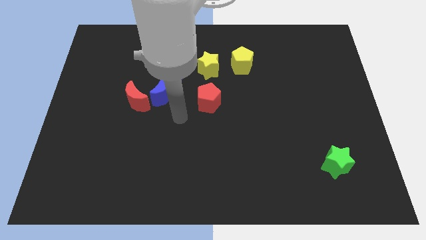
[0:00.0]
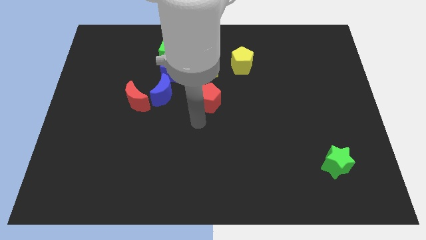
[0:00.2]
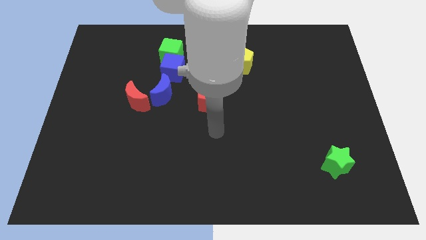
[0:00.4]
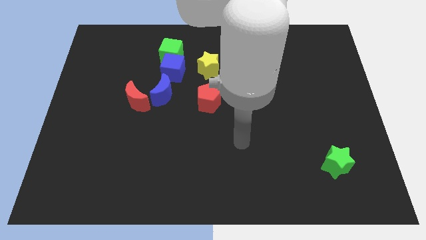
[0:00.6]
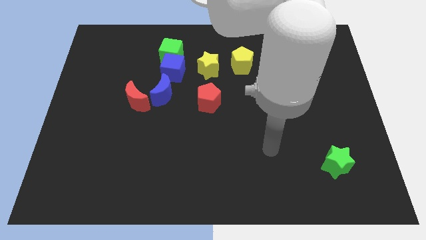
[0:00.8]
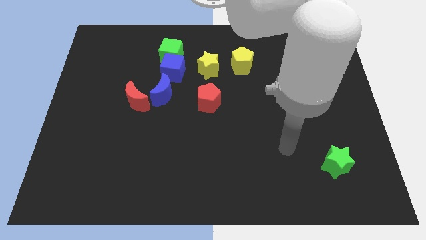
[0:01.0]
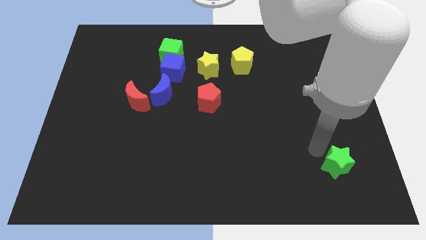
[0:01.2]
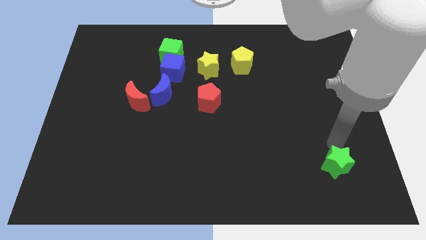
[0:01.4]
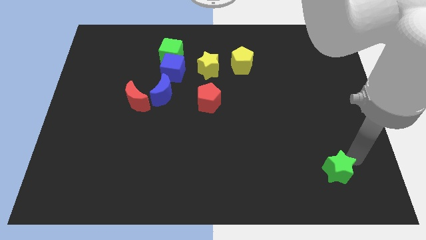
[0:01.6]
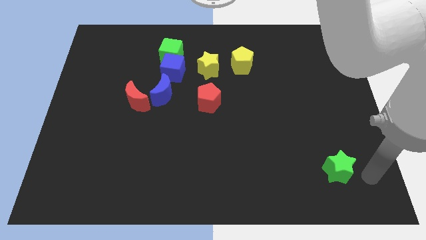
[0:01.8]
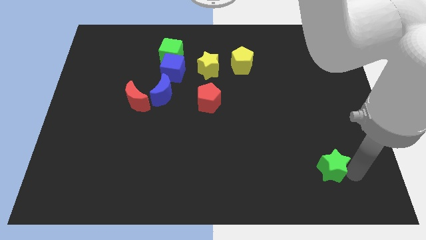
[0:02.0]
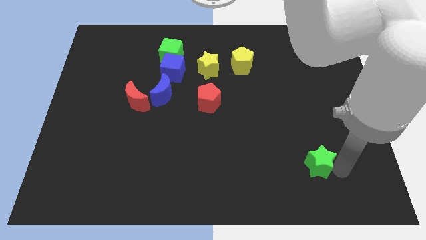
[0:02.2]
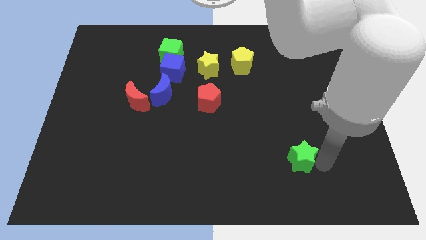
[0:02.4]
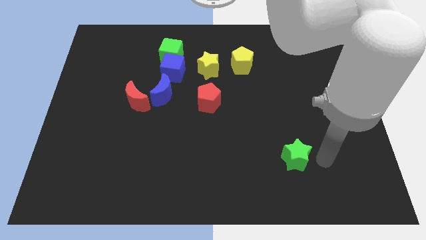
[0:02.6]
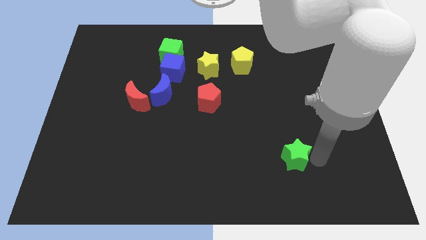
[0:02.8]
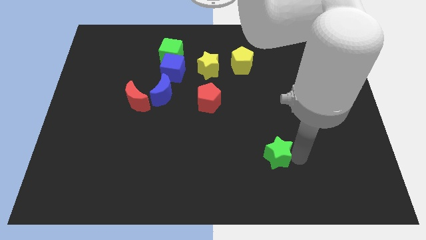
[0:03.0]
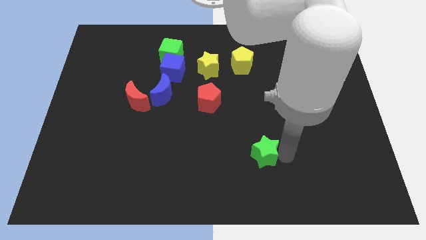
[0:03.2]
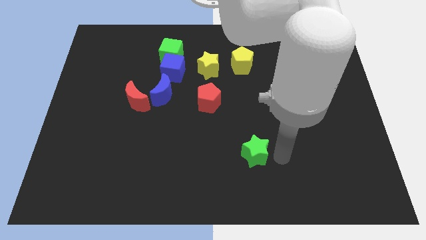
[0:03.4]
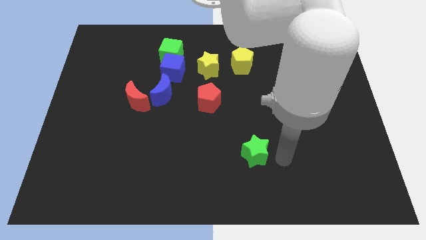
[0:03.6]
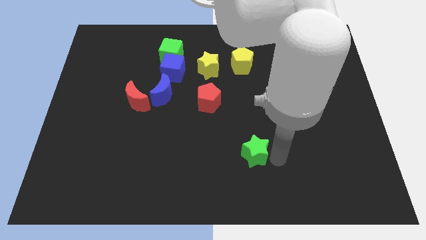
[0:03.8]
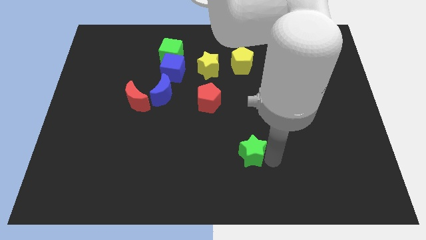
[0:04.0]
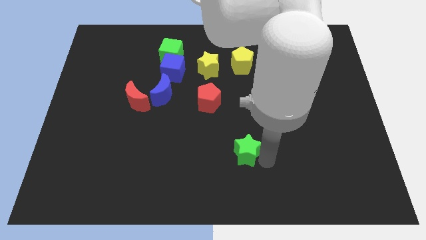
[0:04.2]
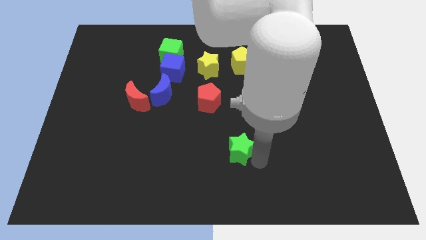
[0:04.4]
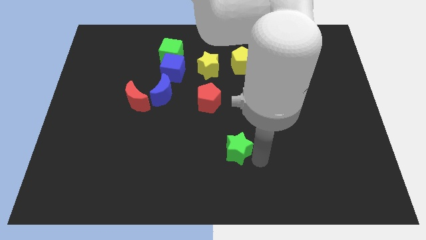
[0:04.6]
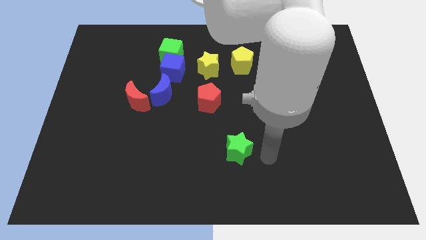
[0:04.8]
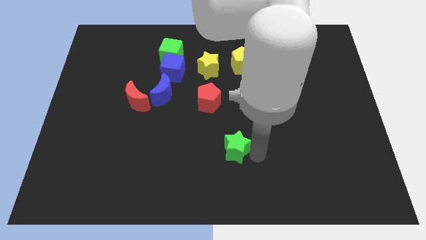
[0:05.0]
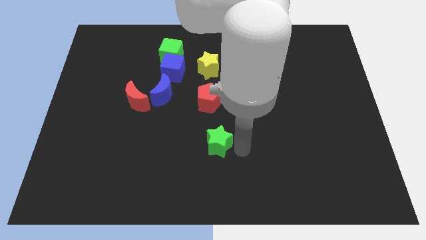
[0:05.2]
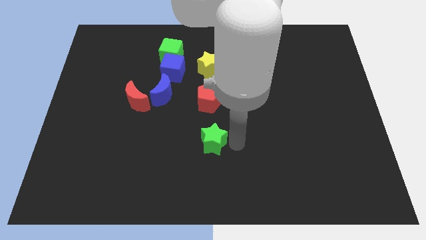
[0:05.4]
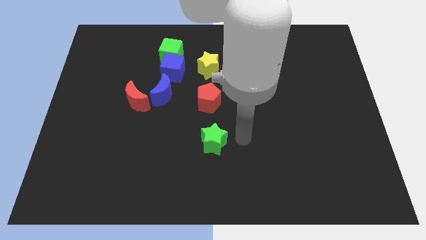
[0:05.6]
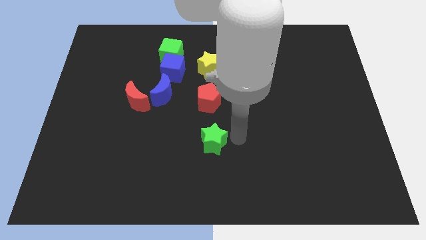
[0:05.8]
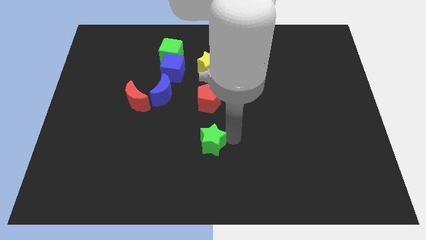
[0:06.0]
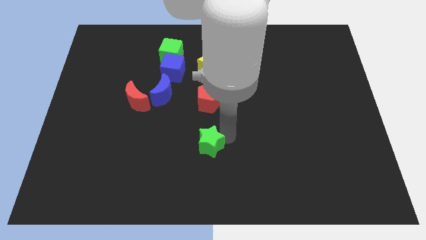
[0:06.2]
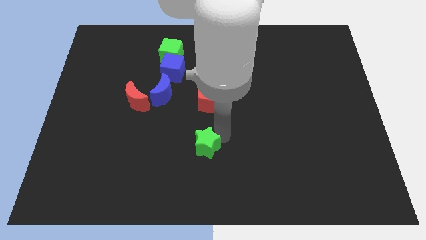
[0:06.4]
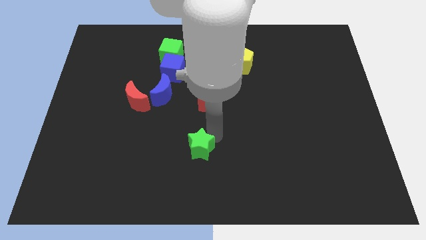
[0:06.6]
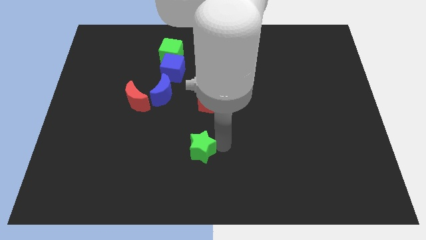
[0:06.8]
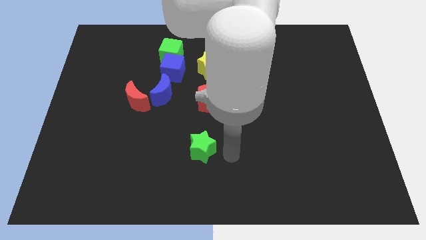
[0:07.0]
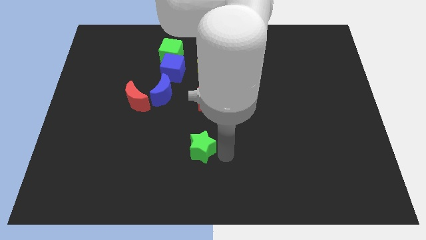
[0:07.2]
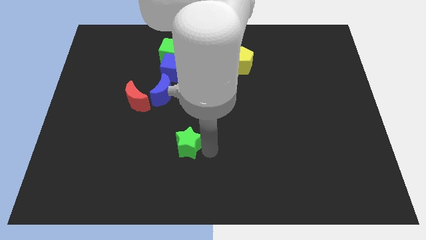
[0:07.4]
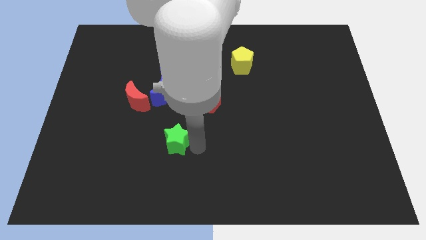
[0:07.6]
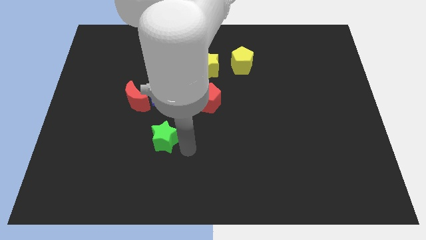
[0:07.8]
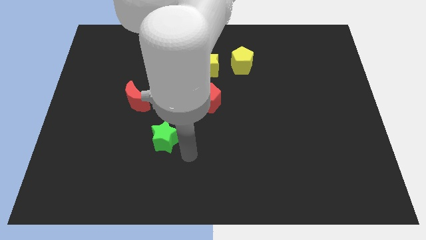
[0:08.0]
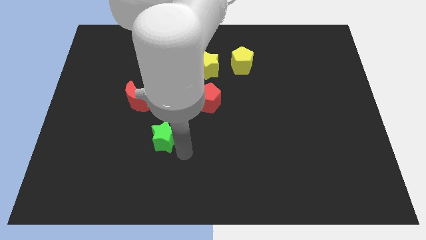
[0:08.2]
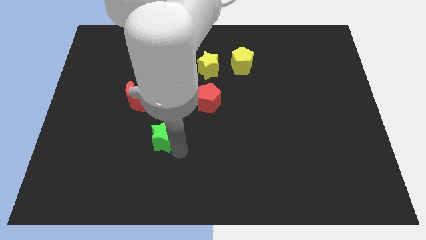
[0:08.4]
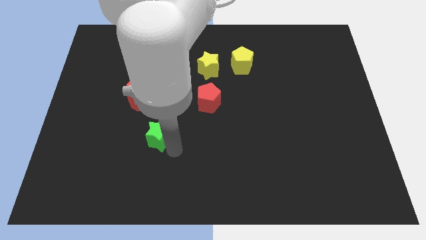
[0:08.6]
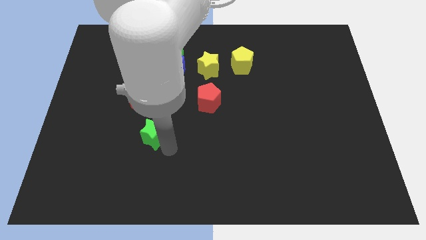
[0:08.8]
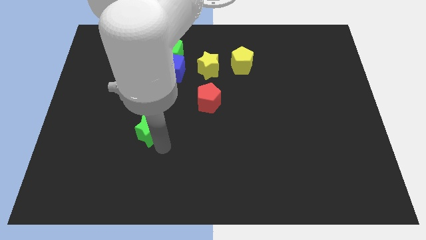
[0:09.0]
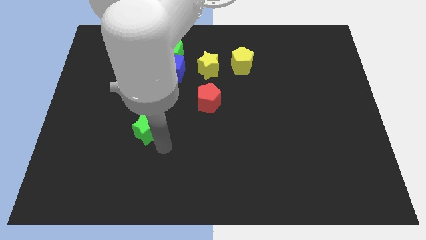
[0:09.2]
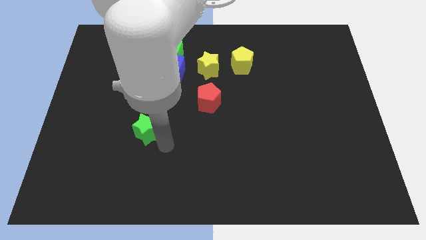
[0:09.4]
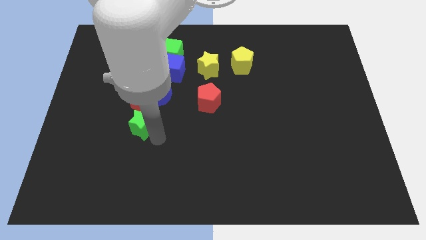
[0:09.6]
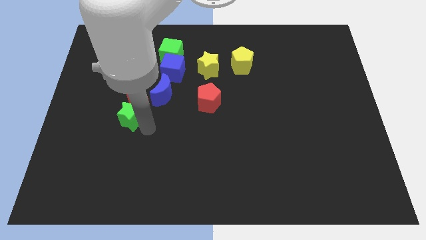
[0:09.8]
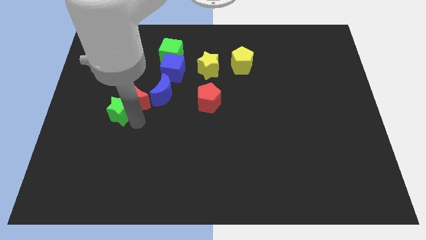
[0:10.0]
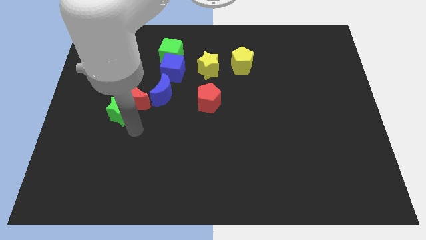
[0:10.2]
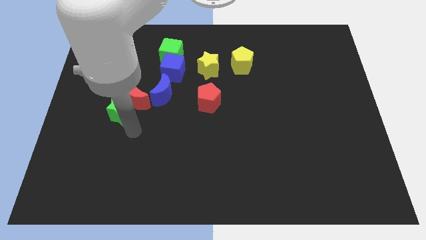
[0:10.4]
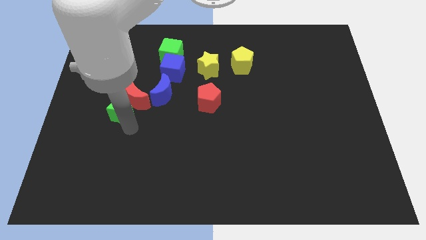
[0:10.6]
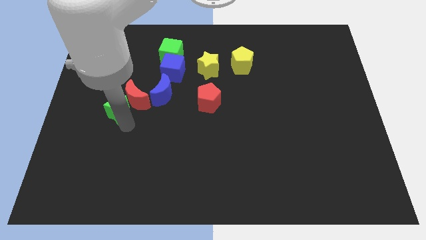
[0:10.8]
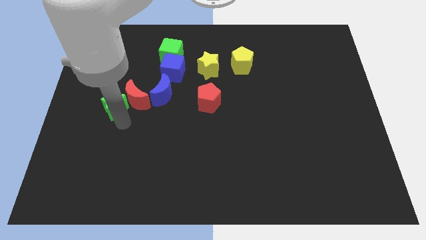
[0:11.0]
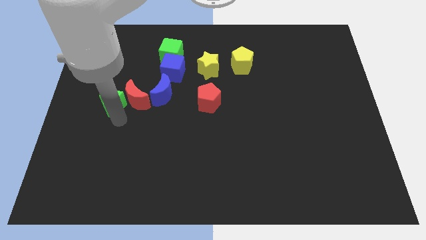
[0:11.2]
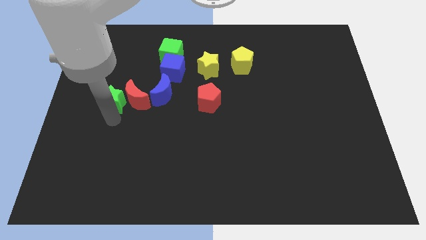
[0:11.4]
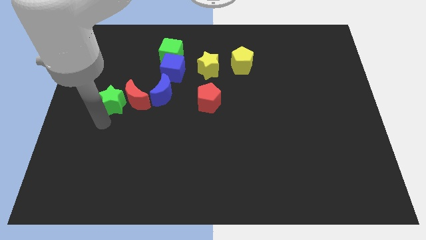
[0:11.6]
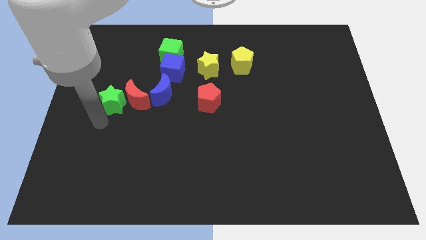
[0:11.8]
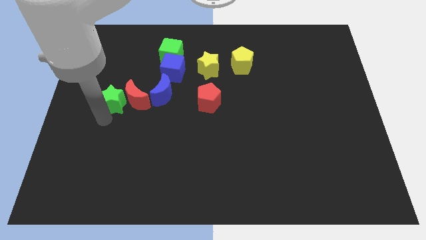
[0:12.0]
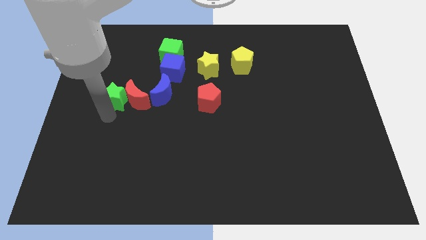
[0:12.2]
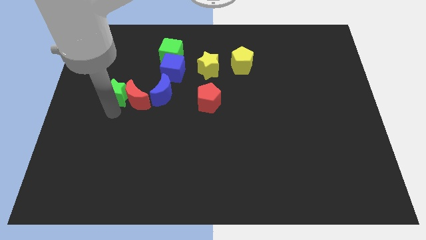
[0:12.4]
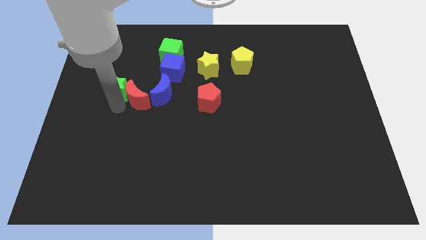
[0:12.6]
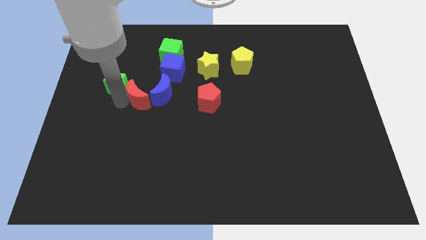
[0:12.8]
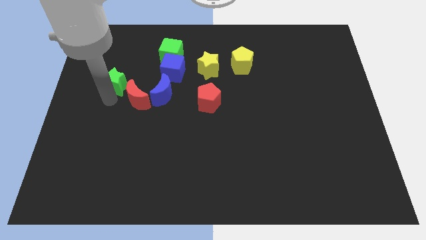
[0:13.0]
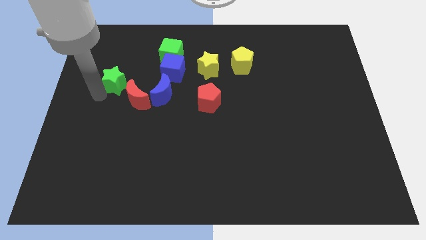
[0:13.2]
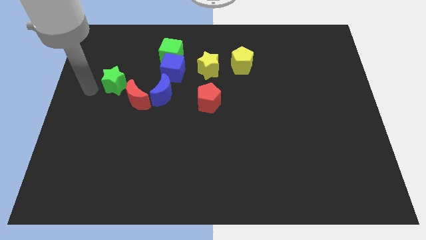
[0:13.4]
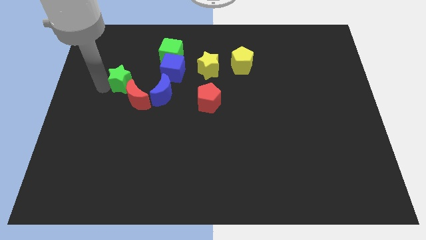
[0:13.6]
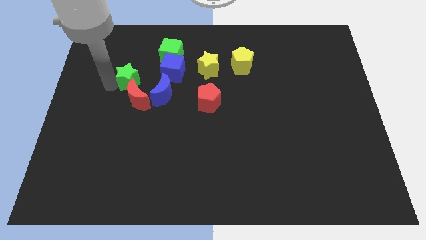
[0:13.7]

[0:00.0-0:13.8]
move the green star diagonally up and to the left of the blue moon

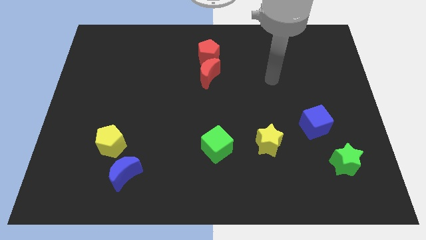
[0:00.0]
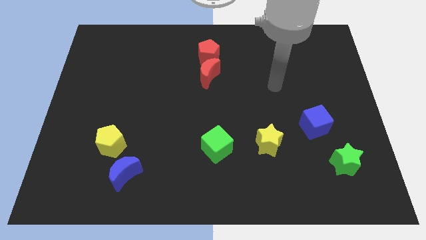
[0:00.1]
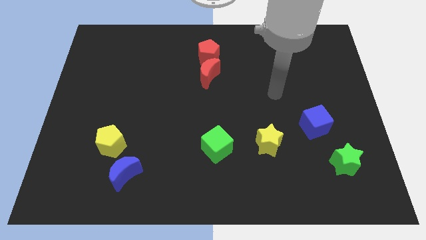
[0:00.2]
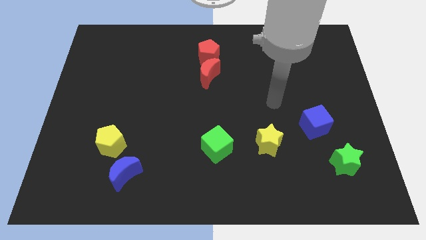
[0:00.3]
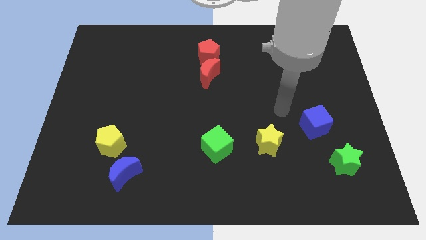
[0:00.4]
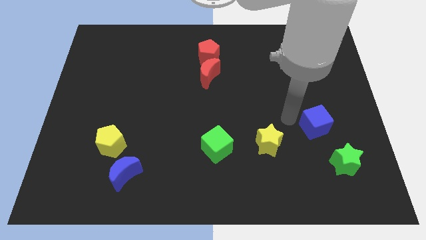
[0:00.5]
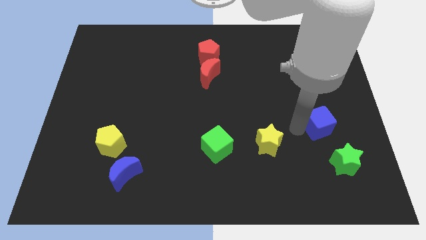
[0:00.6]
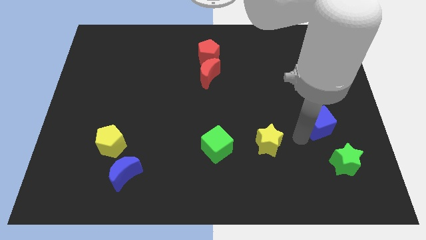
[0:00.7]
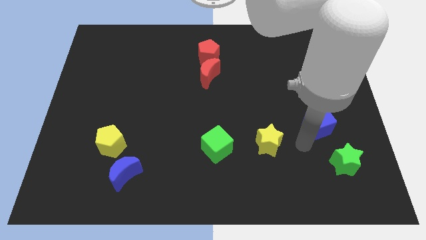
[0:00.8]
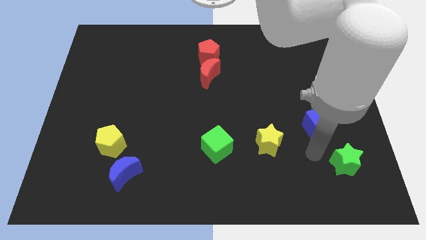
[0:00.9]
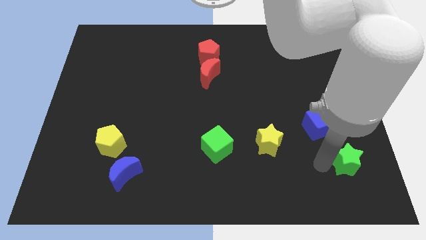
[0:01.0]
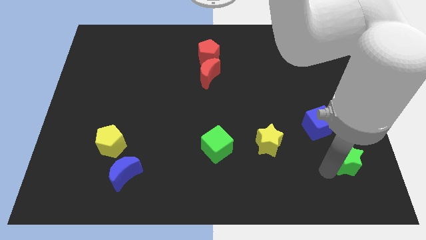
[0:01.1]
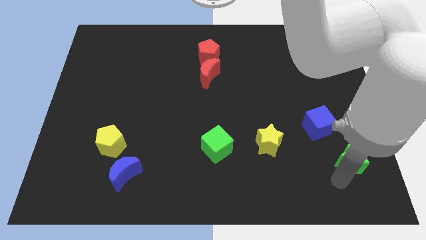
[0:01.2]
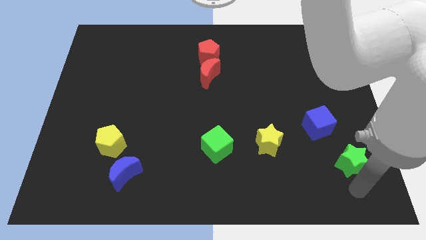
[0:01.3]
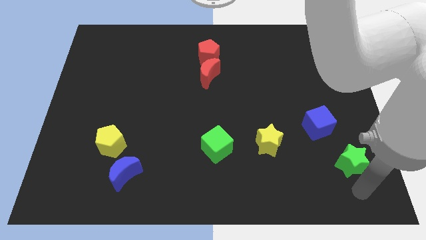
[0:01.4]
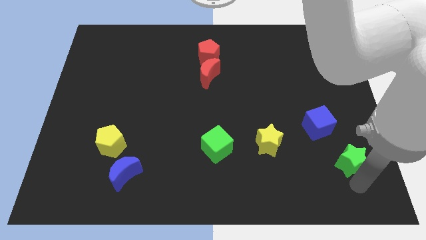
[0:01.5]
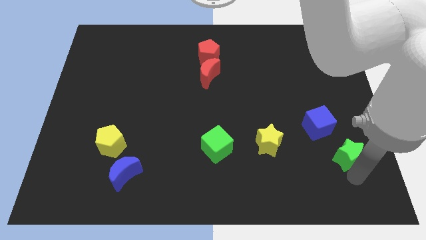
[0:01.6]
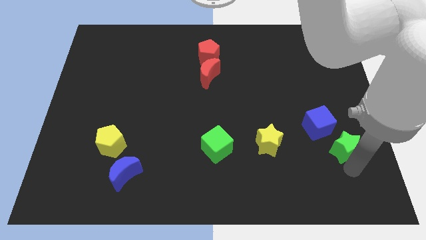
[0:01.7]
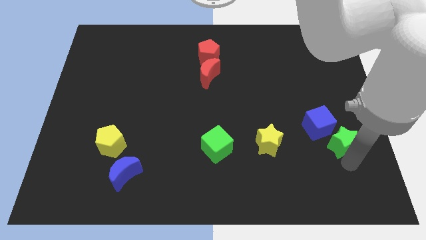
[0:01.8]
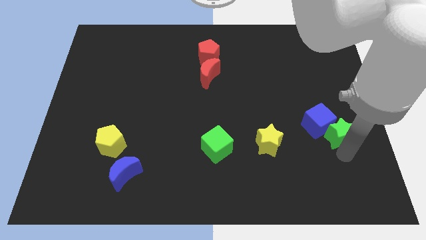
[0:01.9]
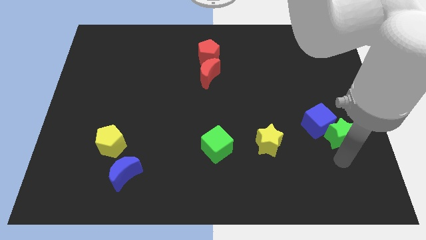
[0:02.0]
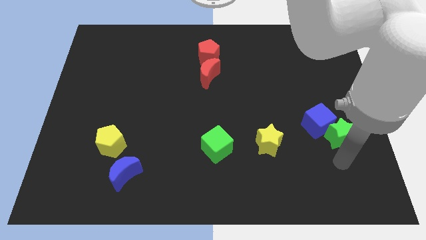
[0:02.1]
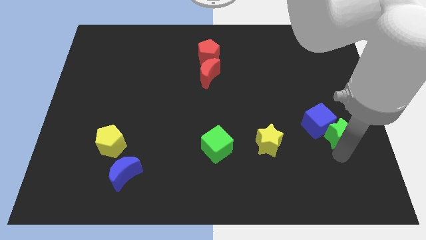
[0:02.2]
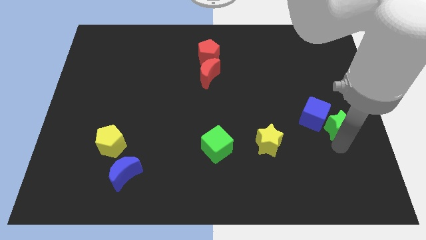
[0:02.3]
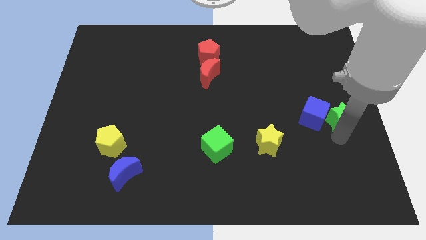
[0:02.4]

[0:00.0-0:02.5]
move the green star to the top right side of the blue cube
